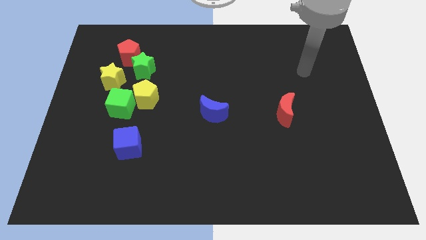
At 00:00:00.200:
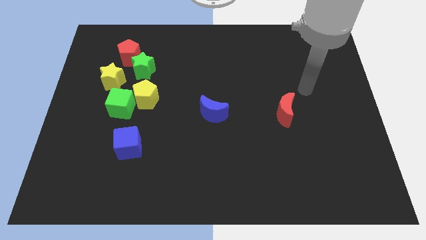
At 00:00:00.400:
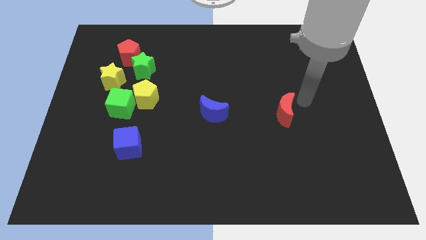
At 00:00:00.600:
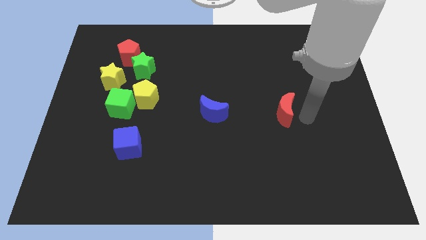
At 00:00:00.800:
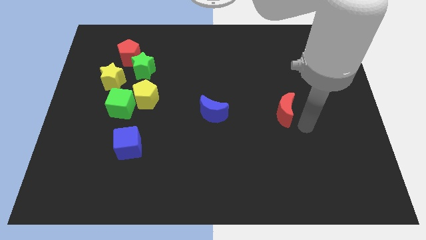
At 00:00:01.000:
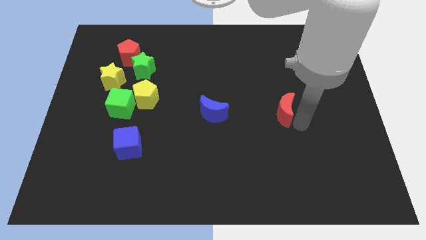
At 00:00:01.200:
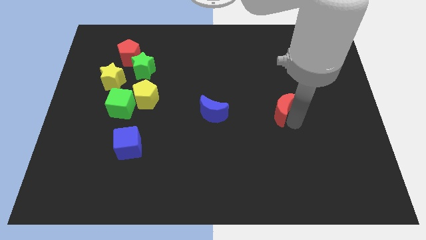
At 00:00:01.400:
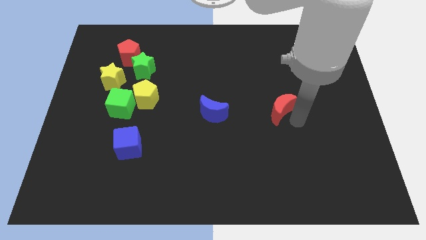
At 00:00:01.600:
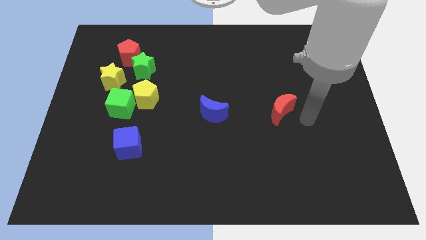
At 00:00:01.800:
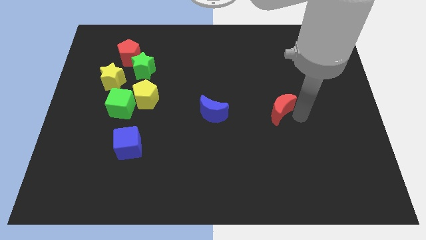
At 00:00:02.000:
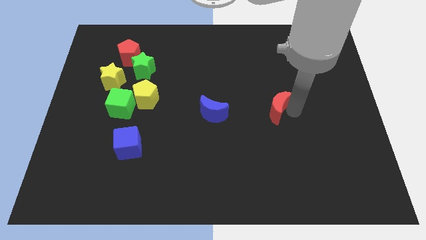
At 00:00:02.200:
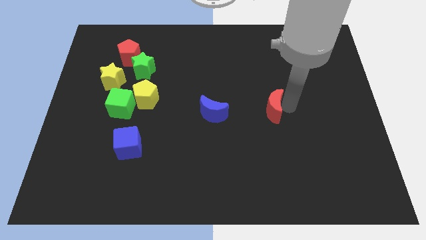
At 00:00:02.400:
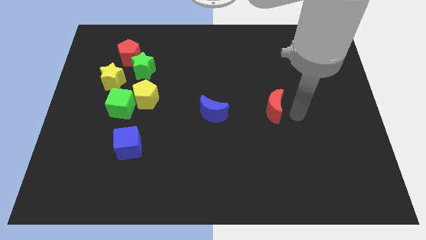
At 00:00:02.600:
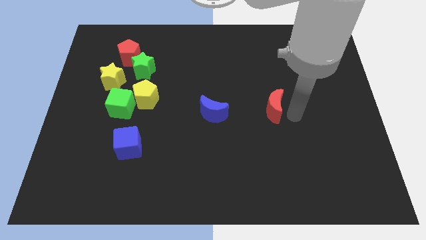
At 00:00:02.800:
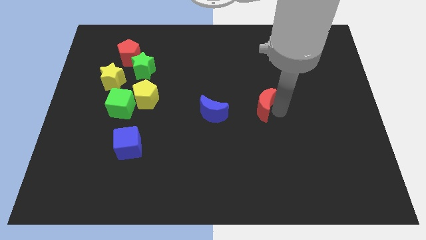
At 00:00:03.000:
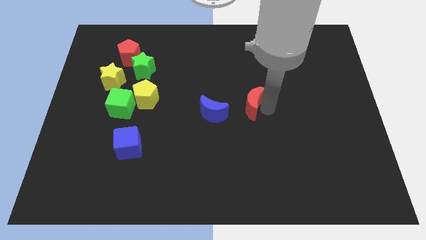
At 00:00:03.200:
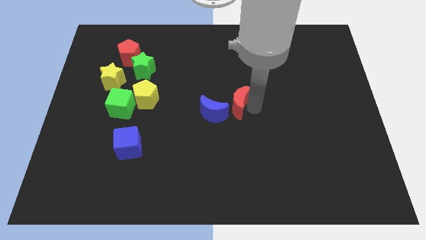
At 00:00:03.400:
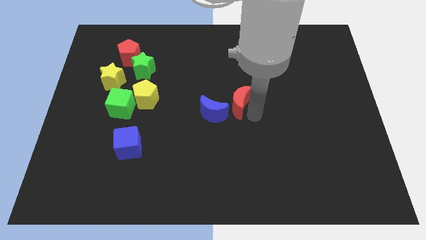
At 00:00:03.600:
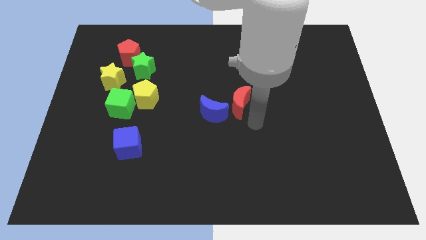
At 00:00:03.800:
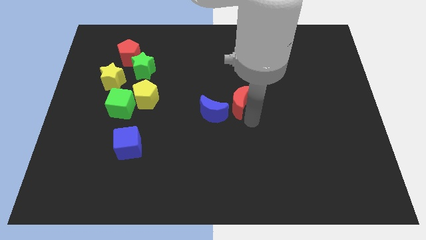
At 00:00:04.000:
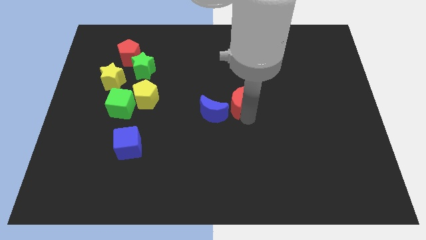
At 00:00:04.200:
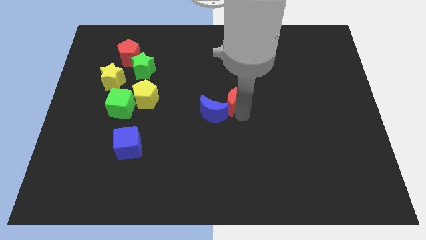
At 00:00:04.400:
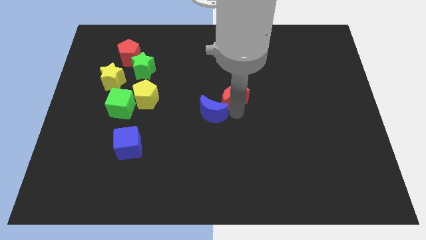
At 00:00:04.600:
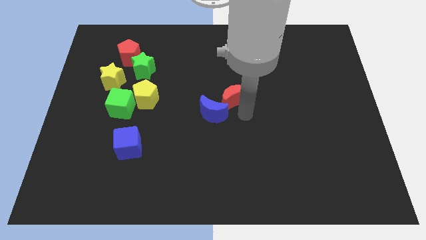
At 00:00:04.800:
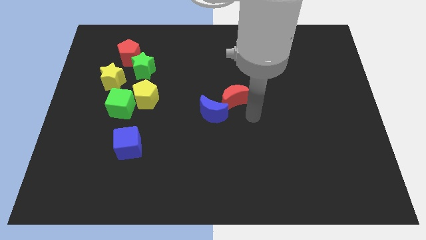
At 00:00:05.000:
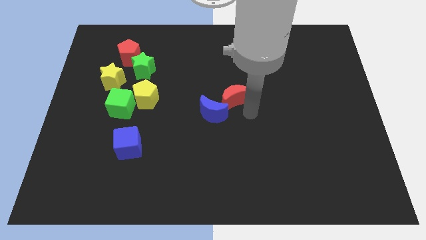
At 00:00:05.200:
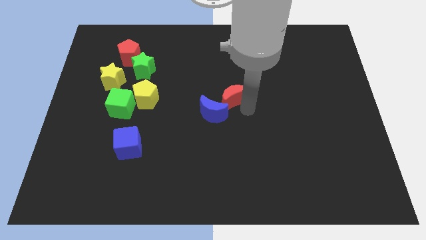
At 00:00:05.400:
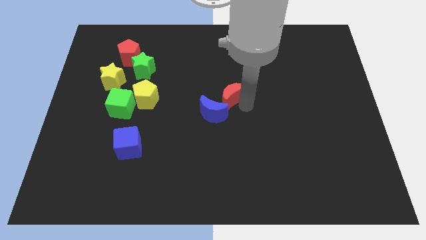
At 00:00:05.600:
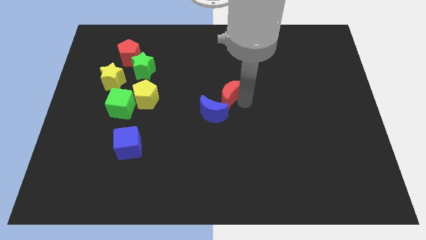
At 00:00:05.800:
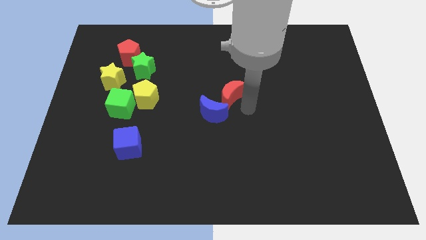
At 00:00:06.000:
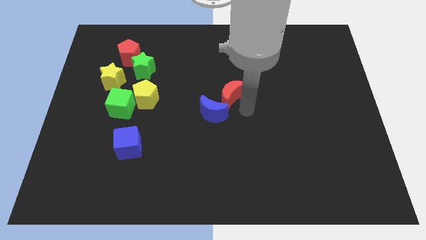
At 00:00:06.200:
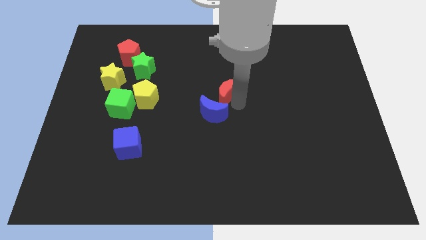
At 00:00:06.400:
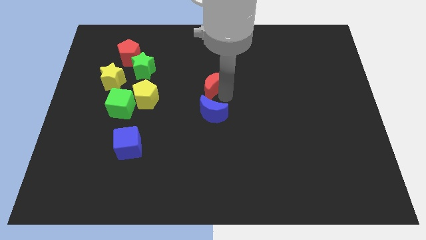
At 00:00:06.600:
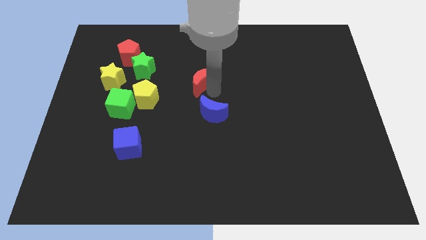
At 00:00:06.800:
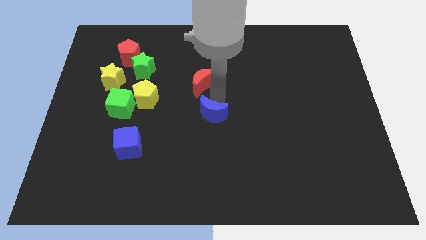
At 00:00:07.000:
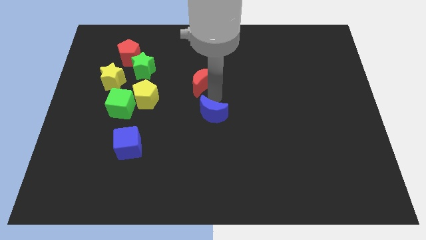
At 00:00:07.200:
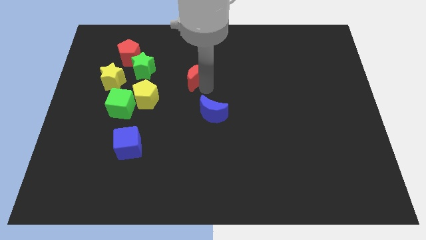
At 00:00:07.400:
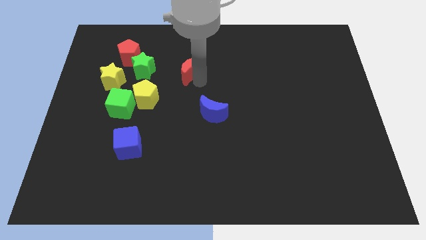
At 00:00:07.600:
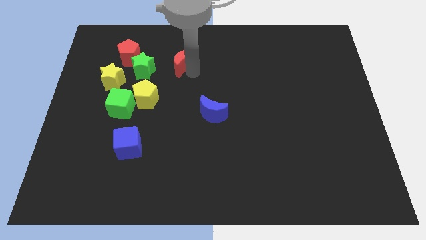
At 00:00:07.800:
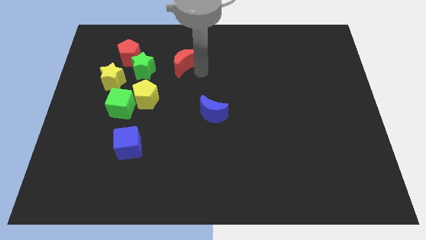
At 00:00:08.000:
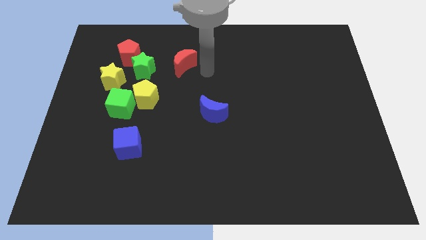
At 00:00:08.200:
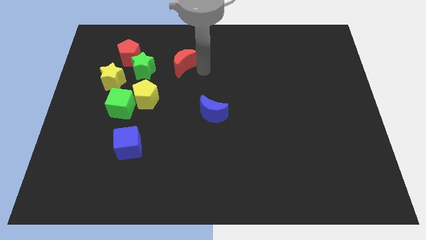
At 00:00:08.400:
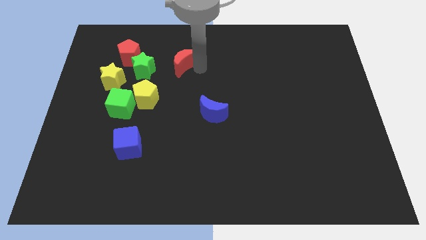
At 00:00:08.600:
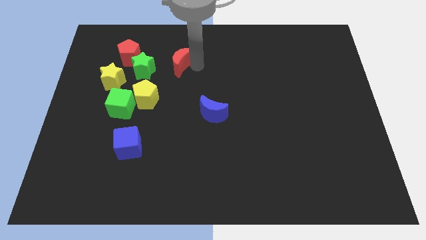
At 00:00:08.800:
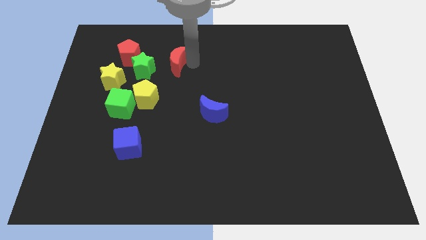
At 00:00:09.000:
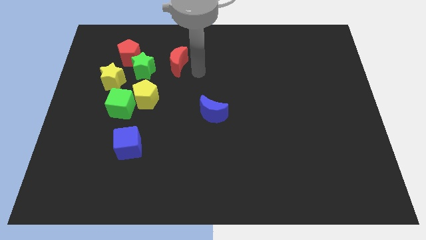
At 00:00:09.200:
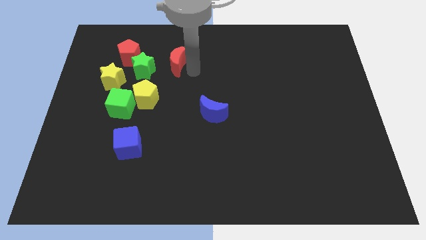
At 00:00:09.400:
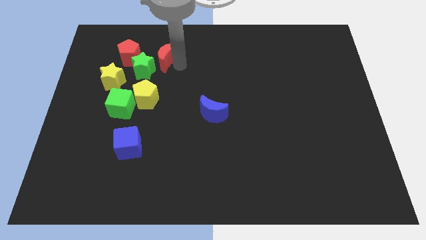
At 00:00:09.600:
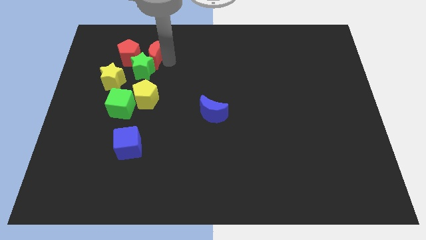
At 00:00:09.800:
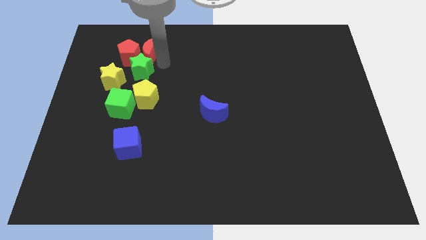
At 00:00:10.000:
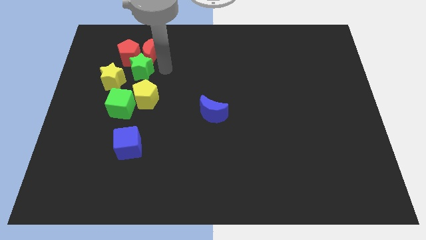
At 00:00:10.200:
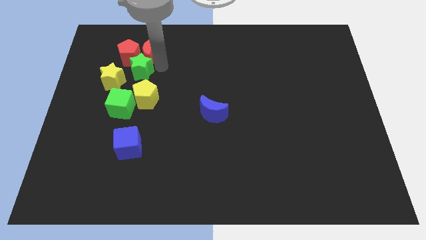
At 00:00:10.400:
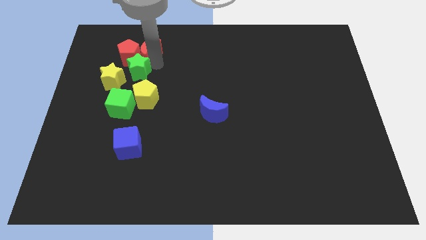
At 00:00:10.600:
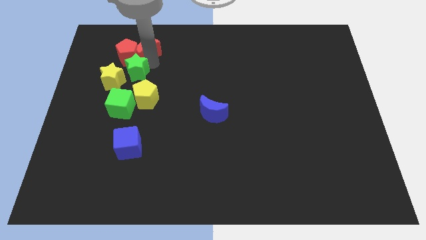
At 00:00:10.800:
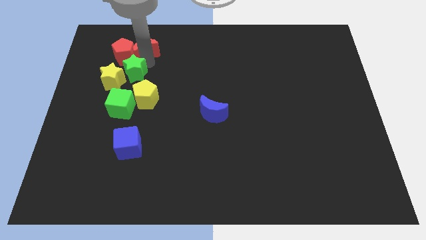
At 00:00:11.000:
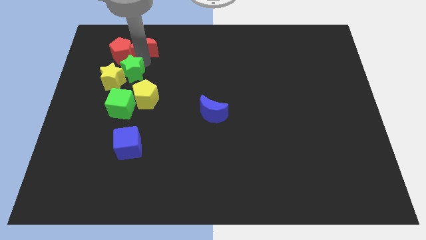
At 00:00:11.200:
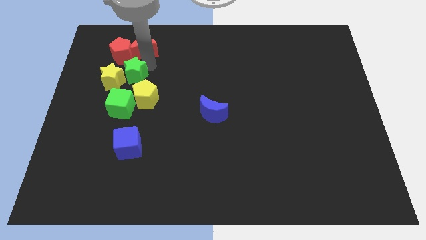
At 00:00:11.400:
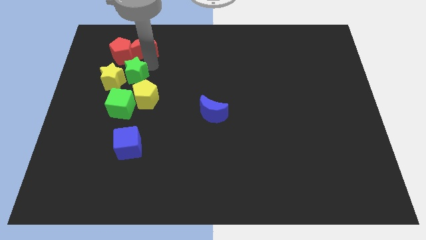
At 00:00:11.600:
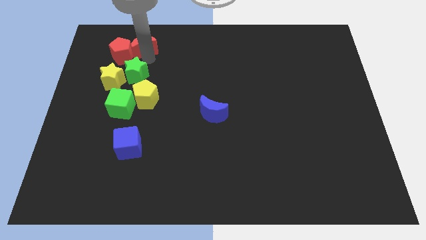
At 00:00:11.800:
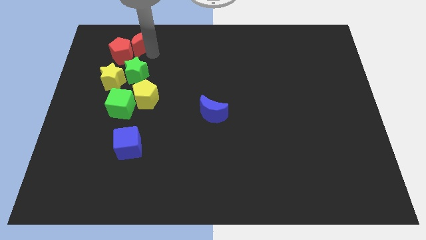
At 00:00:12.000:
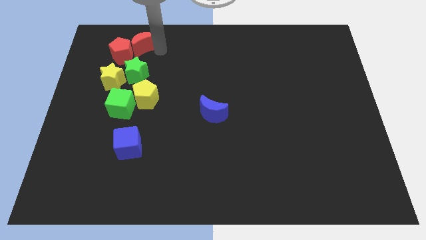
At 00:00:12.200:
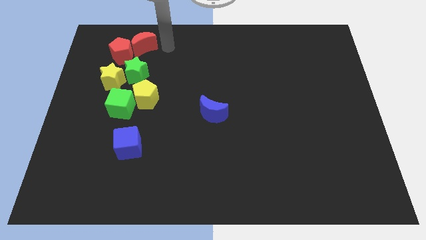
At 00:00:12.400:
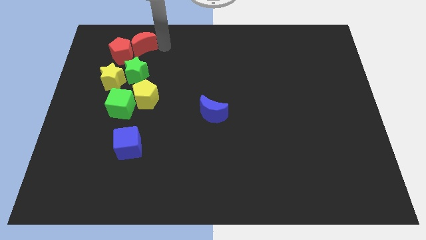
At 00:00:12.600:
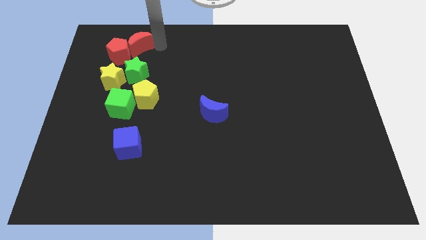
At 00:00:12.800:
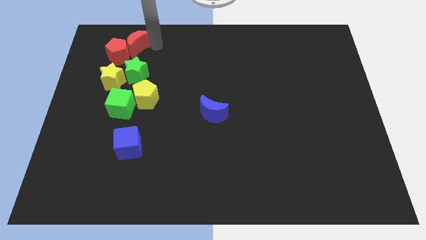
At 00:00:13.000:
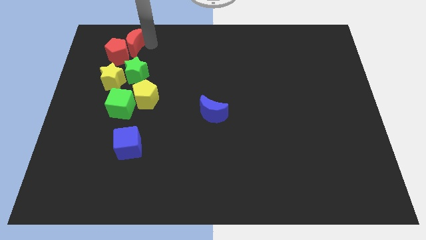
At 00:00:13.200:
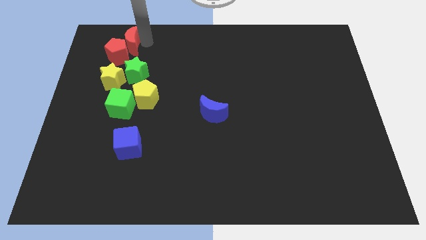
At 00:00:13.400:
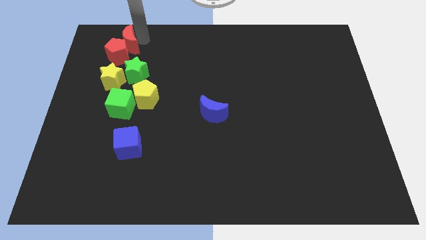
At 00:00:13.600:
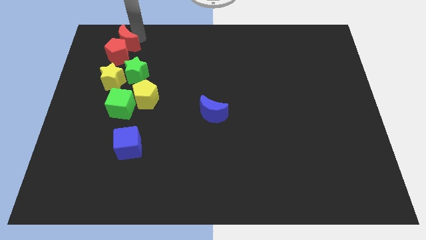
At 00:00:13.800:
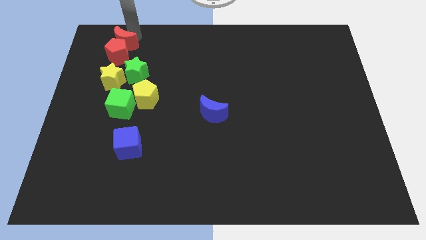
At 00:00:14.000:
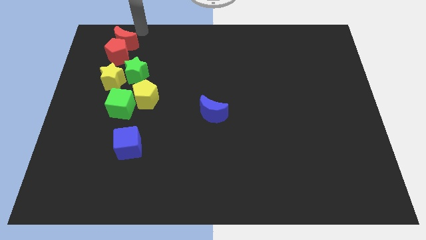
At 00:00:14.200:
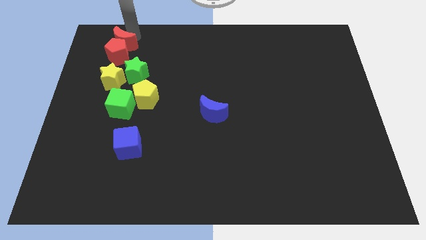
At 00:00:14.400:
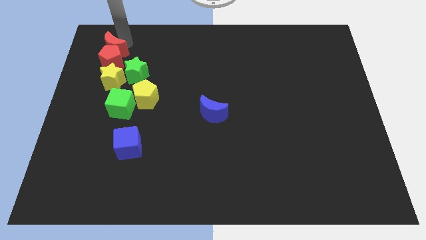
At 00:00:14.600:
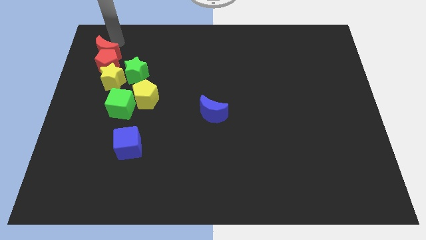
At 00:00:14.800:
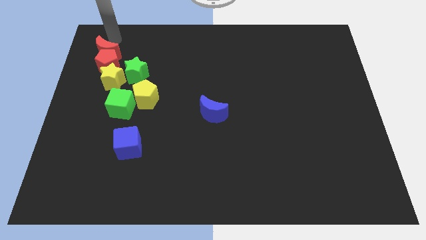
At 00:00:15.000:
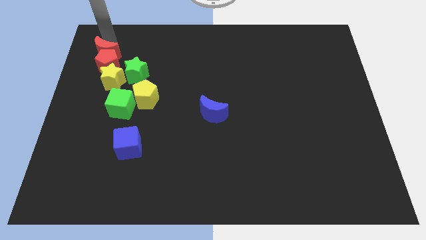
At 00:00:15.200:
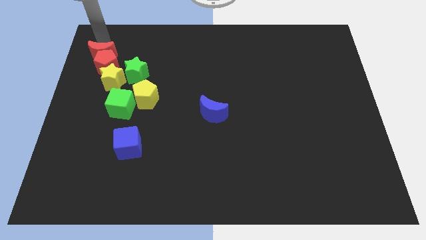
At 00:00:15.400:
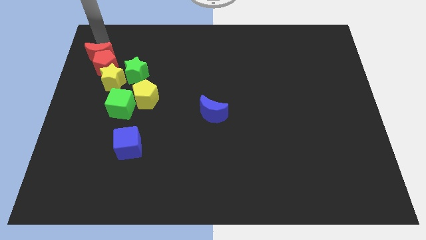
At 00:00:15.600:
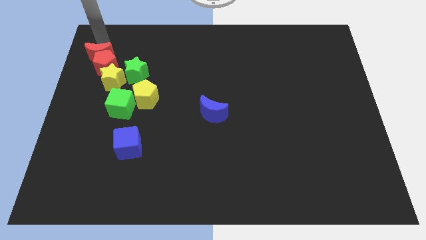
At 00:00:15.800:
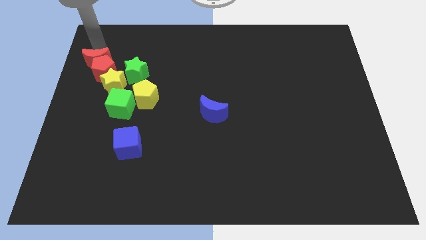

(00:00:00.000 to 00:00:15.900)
move the red moon to the left of the green star
